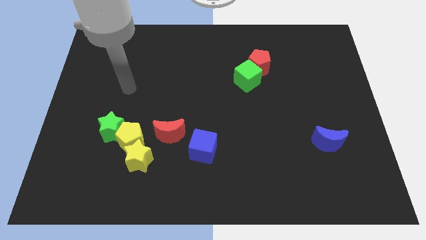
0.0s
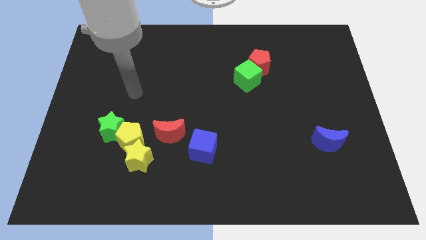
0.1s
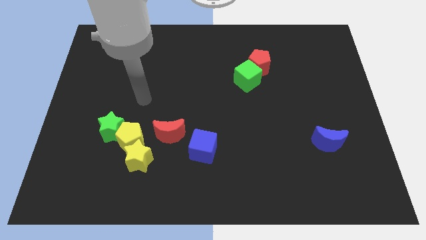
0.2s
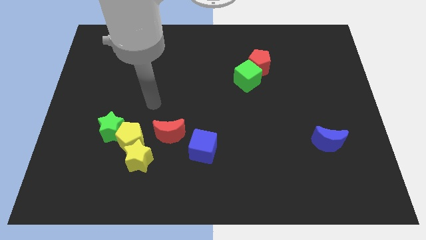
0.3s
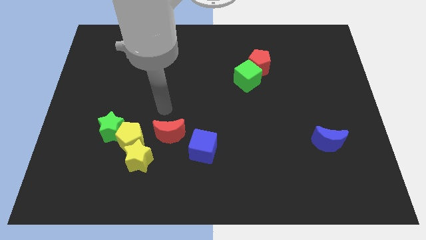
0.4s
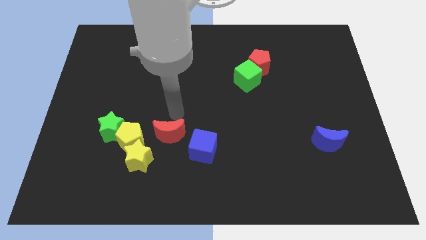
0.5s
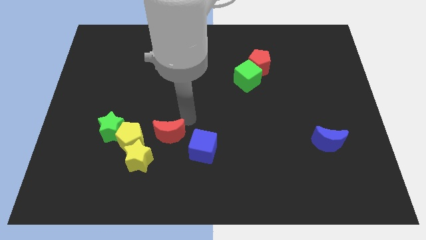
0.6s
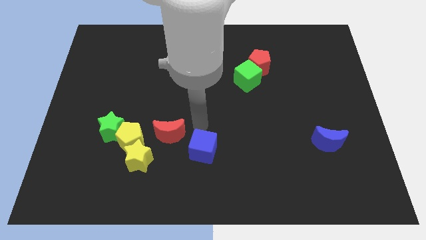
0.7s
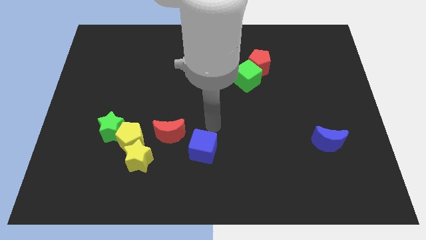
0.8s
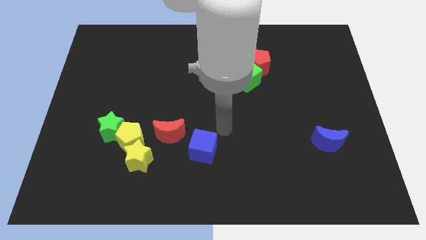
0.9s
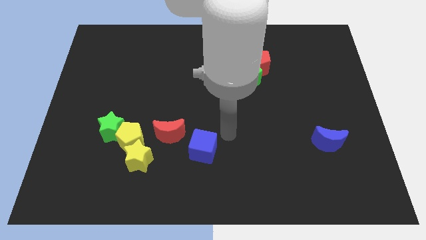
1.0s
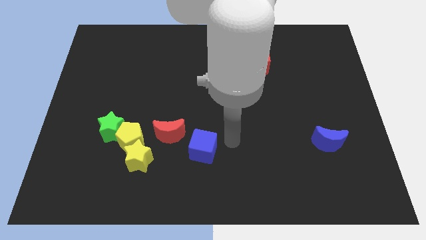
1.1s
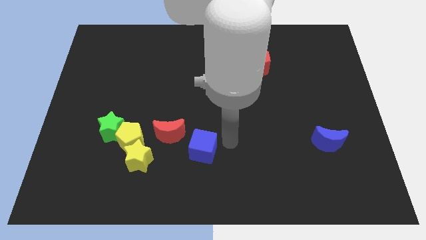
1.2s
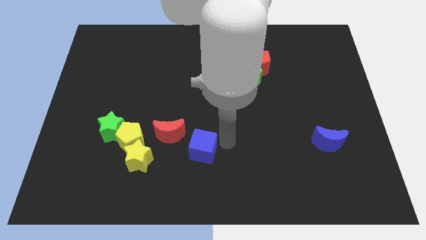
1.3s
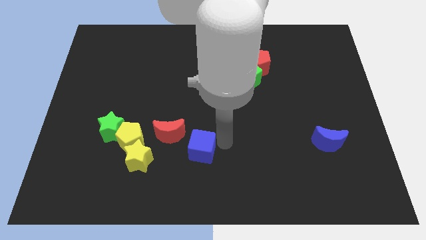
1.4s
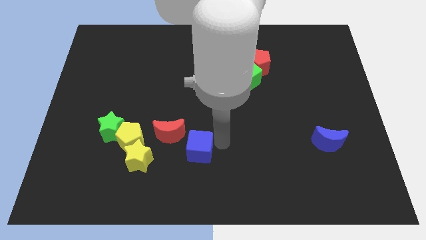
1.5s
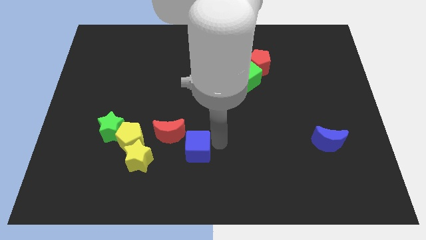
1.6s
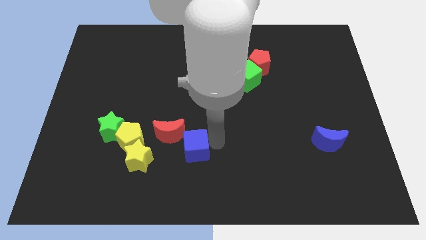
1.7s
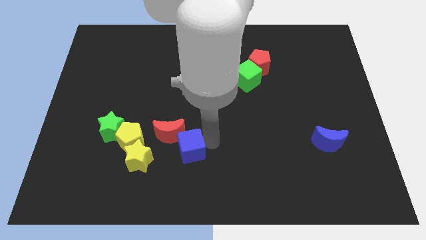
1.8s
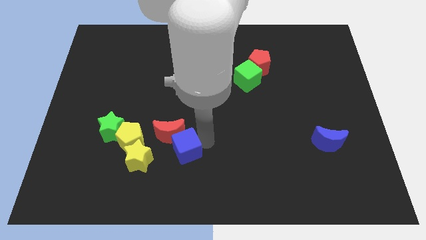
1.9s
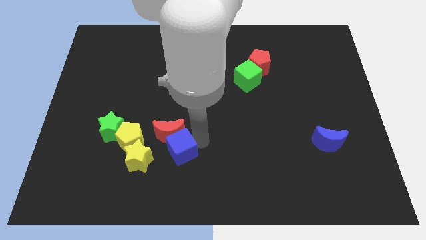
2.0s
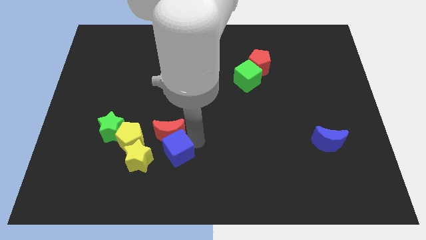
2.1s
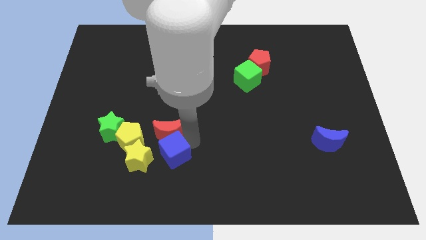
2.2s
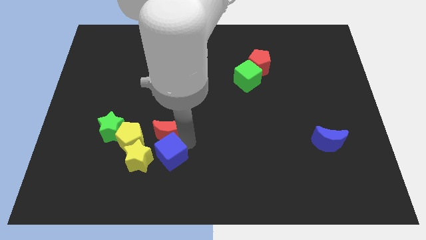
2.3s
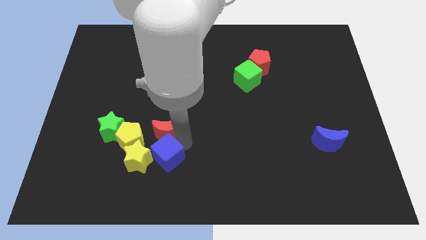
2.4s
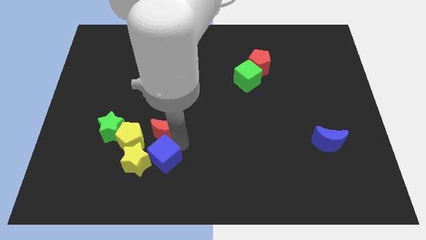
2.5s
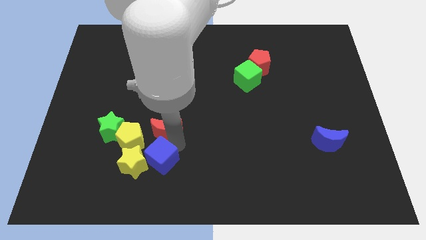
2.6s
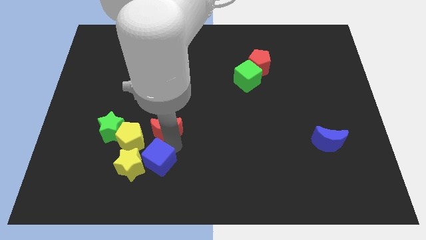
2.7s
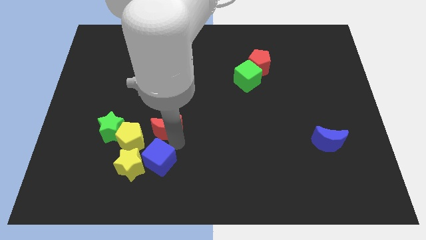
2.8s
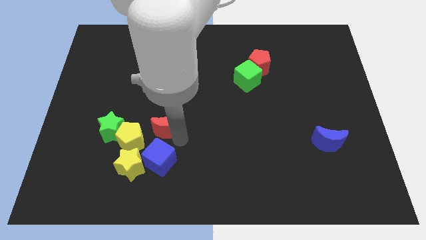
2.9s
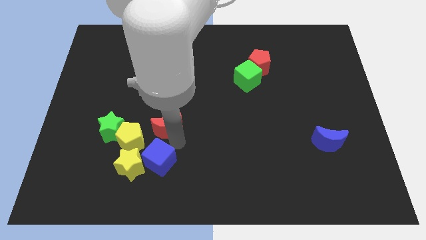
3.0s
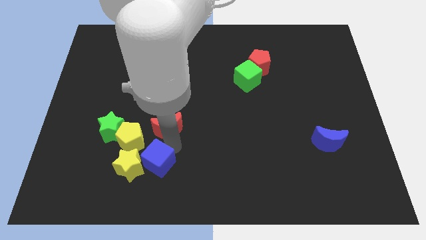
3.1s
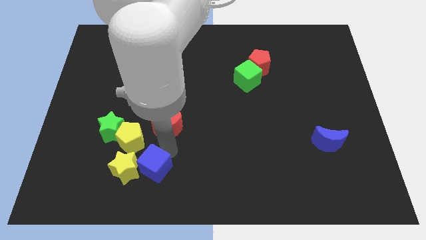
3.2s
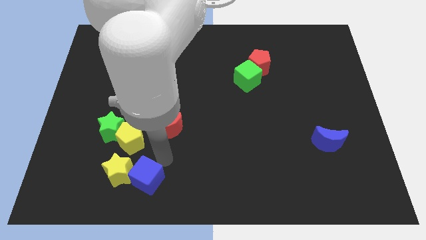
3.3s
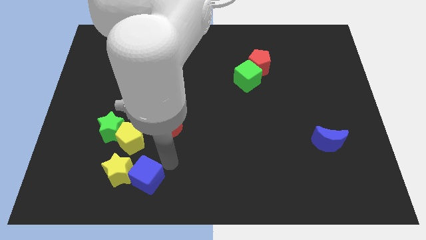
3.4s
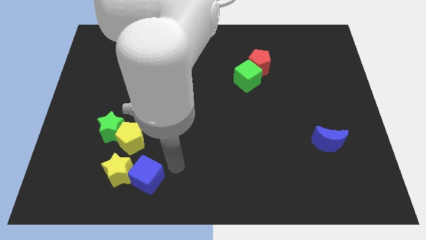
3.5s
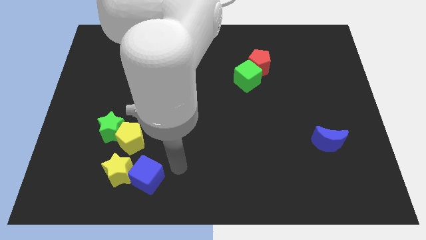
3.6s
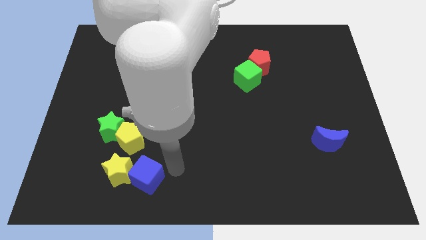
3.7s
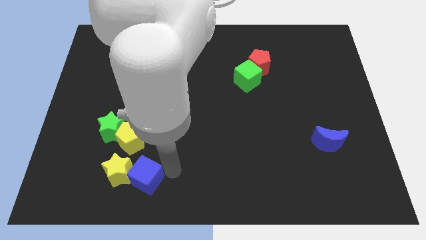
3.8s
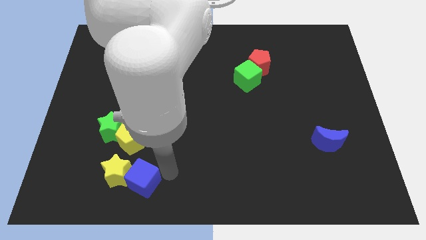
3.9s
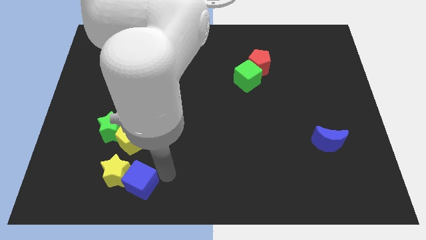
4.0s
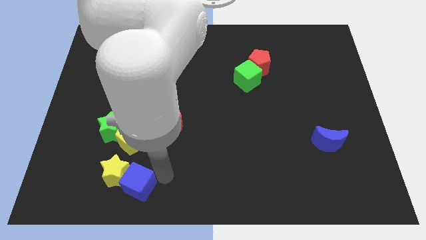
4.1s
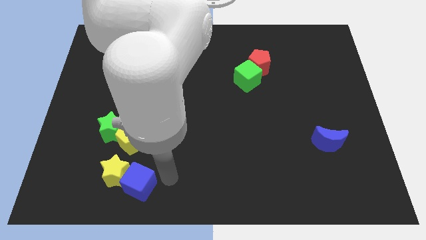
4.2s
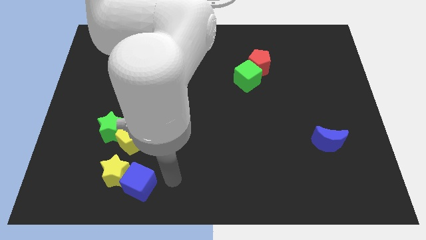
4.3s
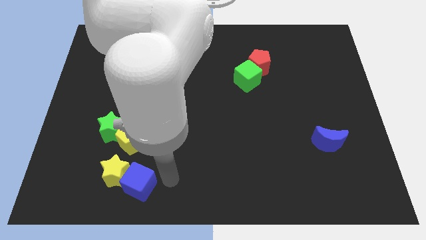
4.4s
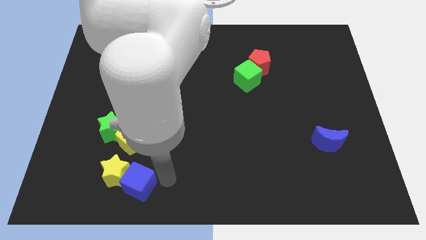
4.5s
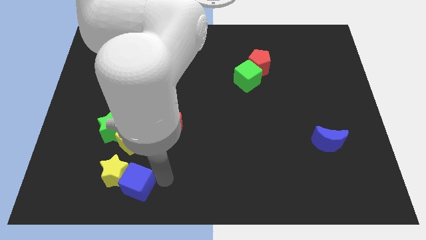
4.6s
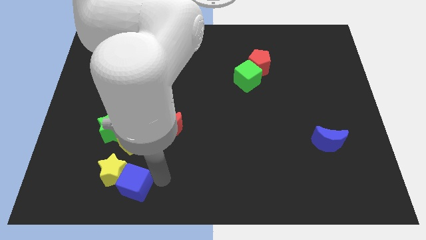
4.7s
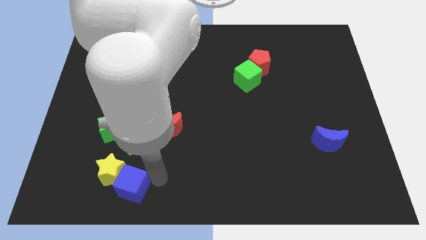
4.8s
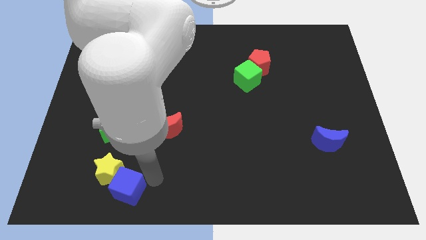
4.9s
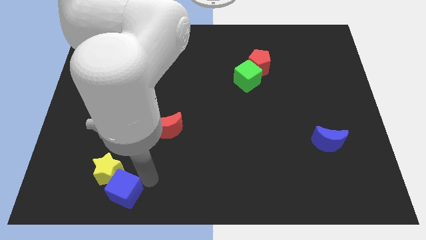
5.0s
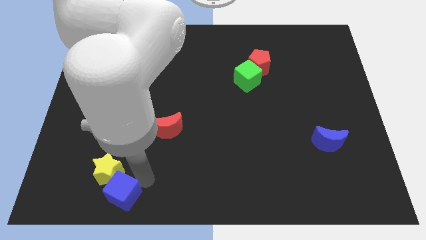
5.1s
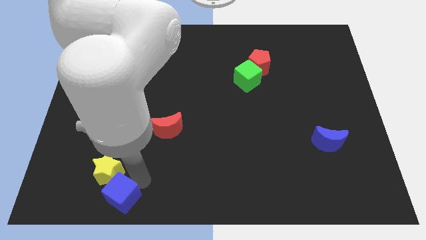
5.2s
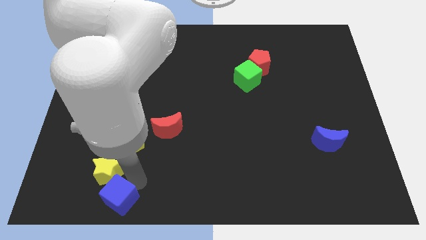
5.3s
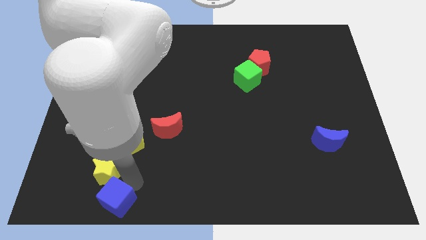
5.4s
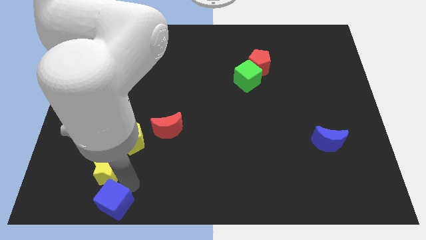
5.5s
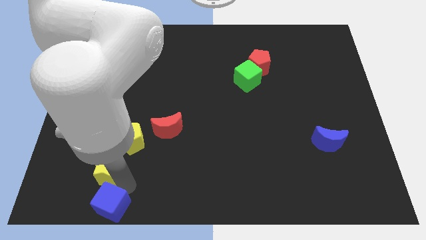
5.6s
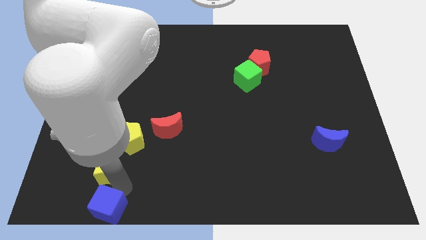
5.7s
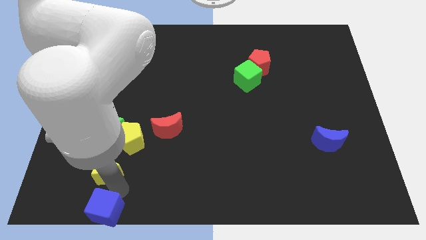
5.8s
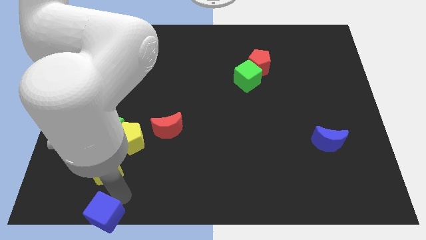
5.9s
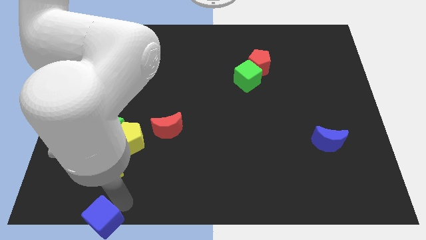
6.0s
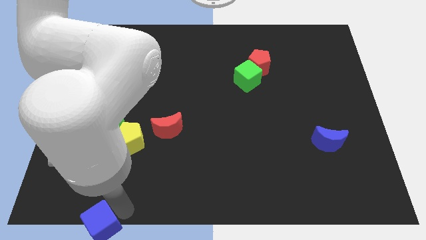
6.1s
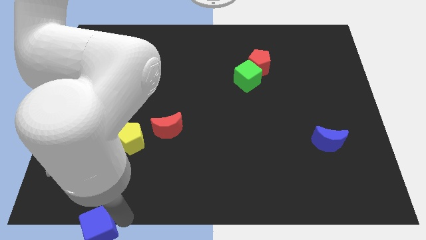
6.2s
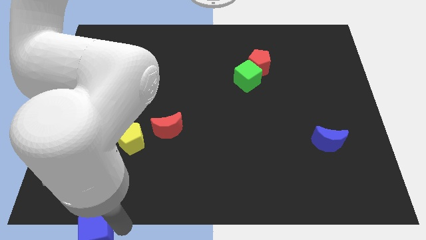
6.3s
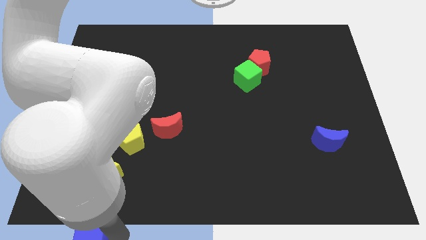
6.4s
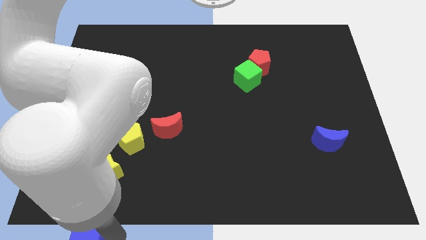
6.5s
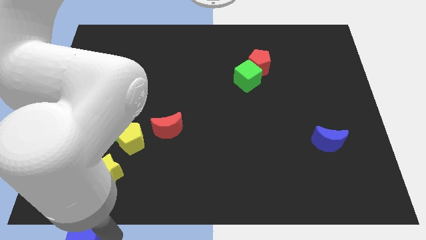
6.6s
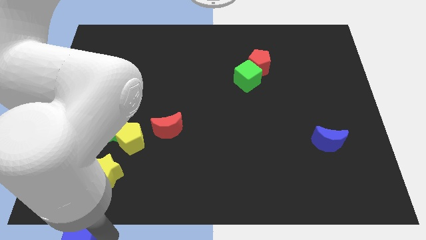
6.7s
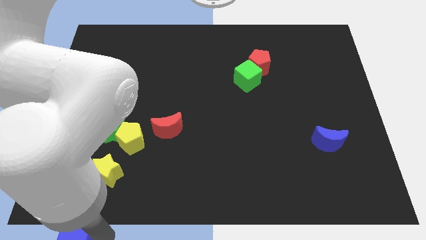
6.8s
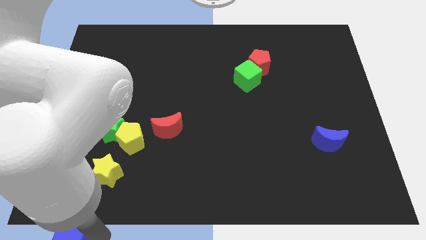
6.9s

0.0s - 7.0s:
move the blue cube to the bottom left of the board
